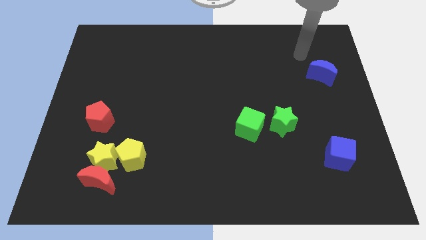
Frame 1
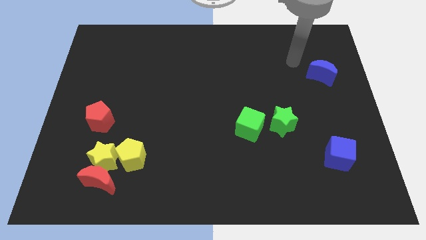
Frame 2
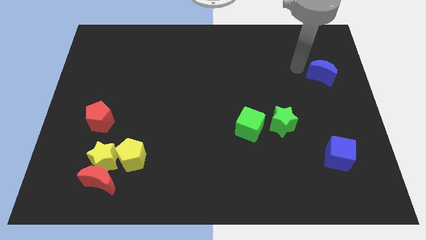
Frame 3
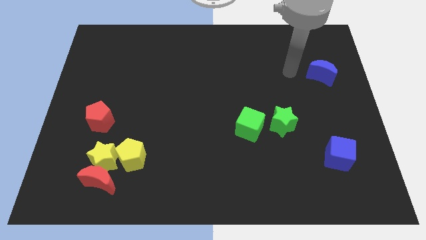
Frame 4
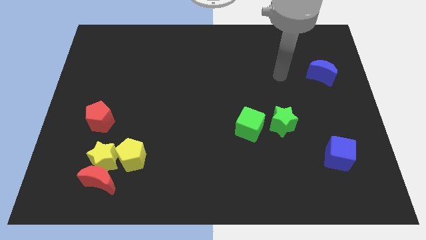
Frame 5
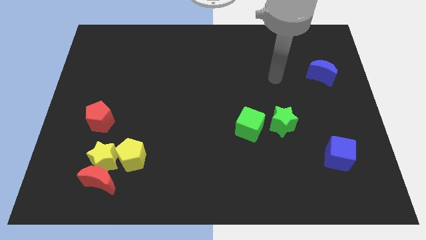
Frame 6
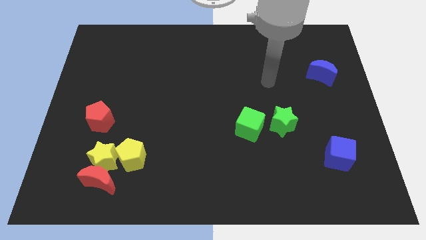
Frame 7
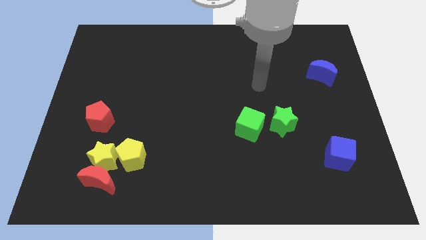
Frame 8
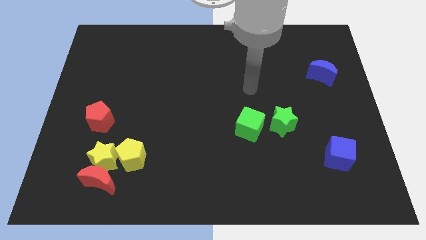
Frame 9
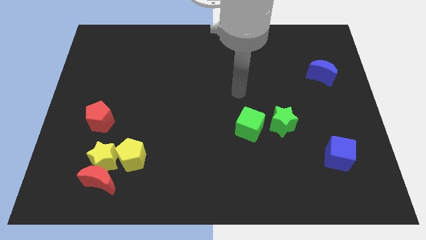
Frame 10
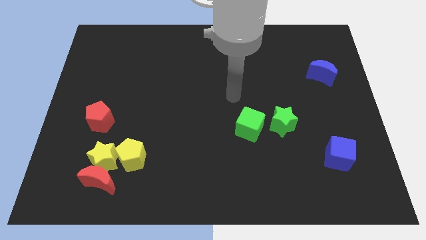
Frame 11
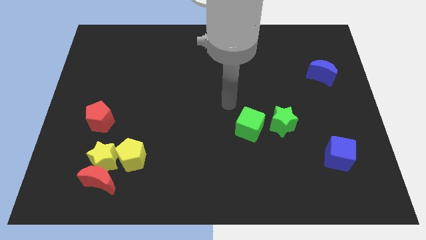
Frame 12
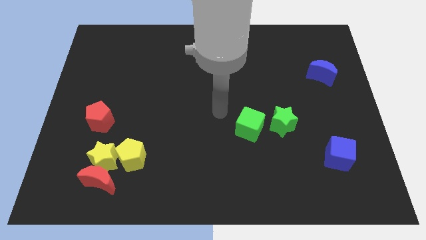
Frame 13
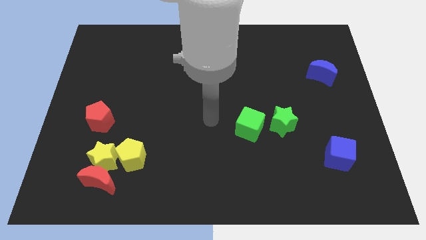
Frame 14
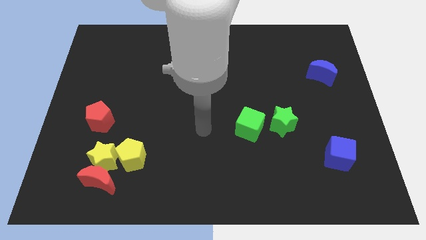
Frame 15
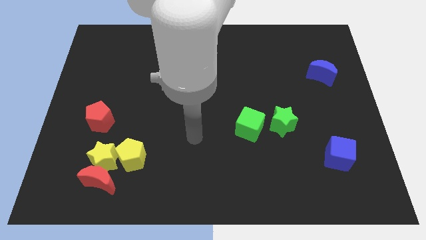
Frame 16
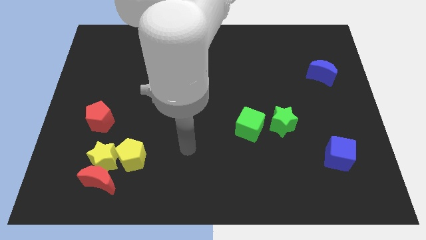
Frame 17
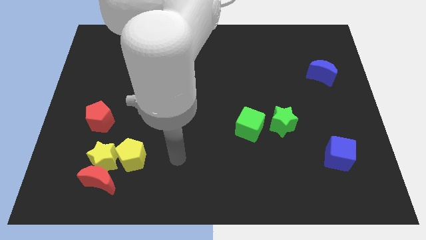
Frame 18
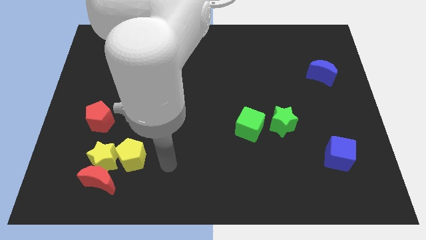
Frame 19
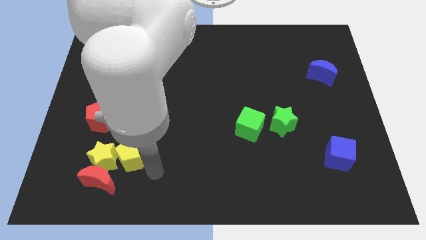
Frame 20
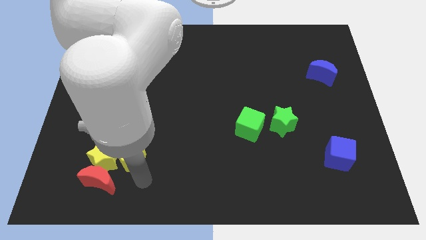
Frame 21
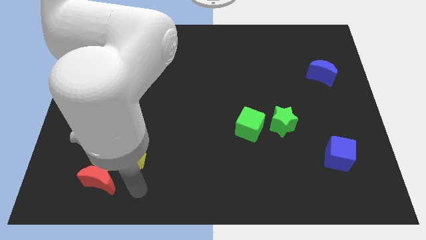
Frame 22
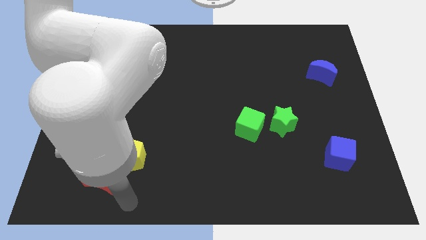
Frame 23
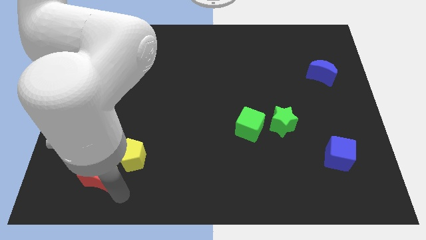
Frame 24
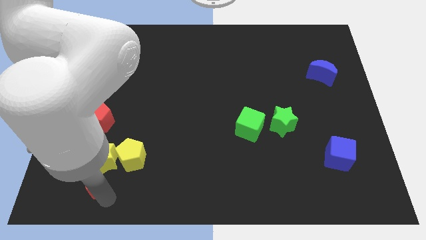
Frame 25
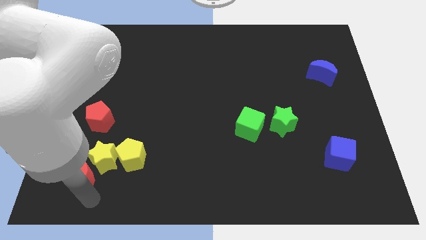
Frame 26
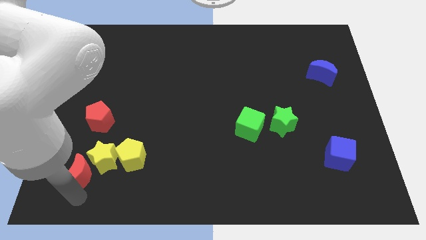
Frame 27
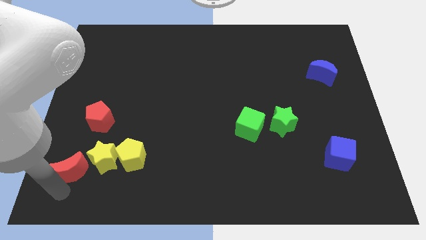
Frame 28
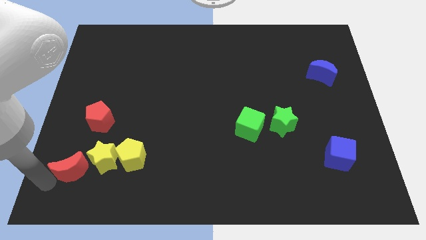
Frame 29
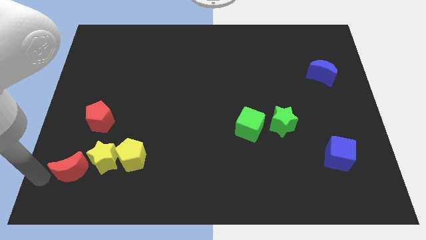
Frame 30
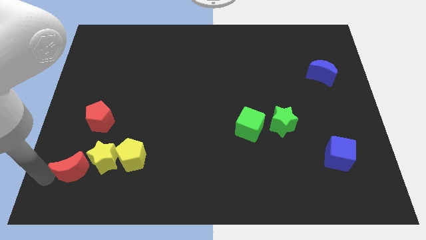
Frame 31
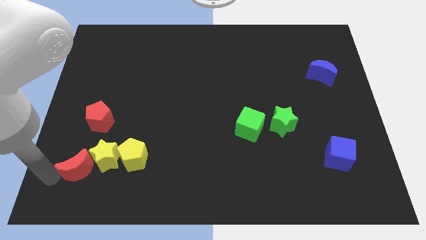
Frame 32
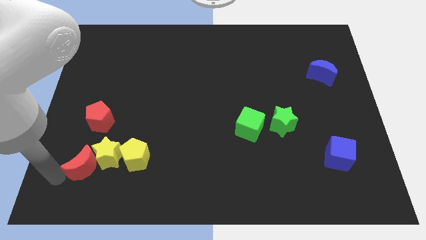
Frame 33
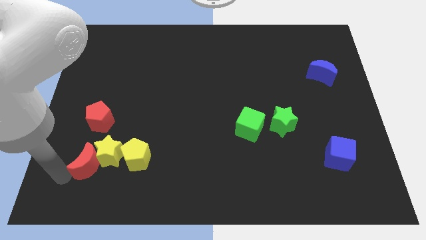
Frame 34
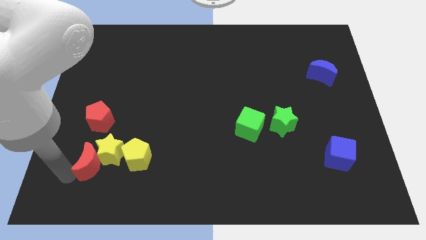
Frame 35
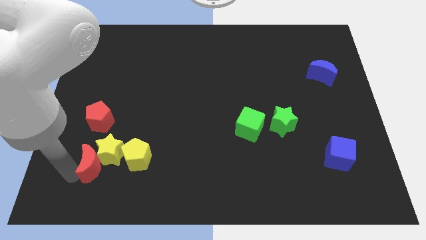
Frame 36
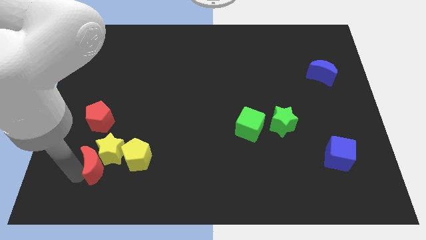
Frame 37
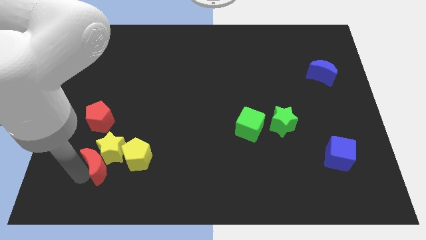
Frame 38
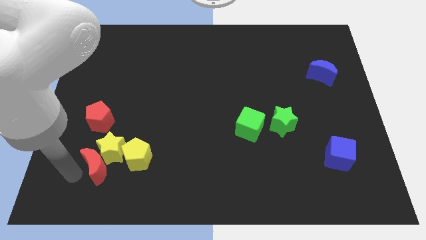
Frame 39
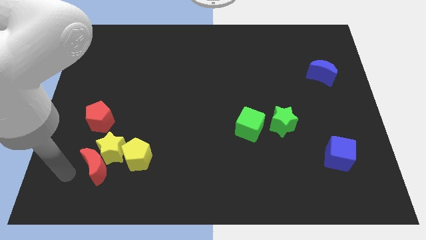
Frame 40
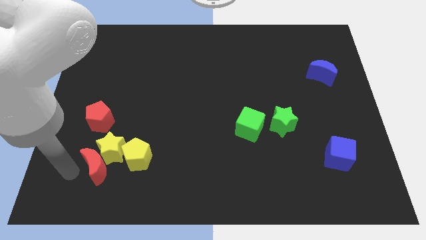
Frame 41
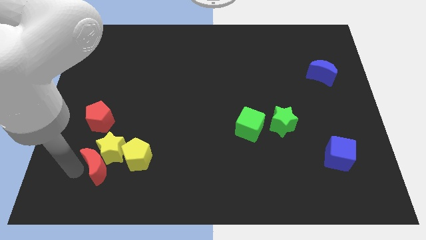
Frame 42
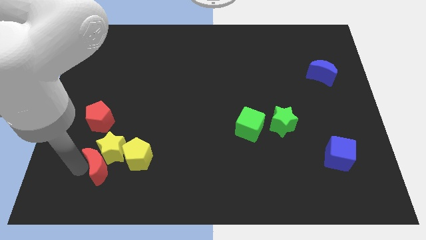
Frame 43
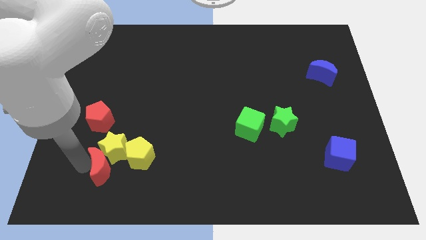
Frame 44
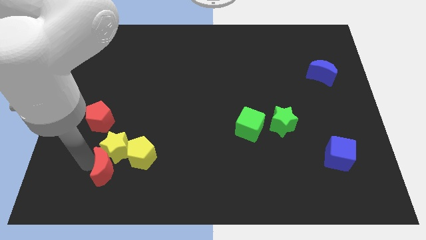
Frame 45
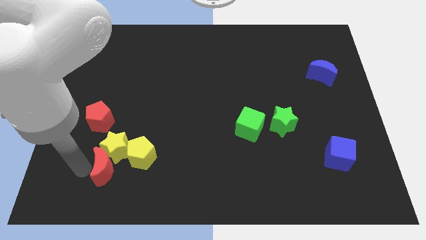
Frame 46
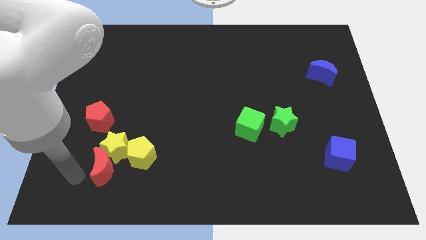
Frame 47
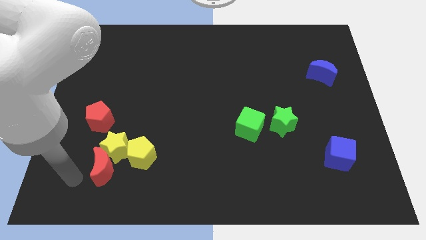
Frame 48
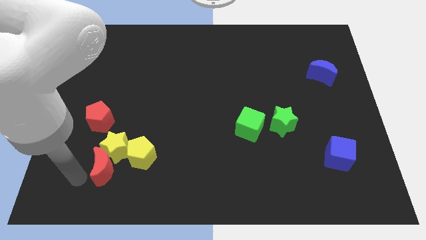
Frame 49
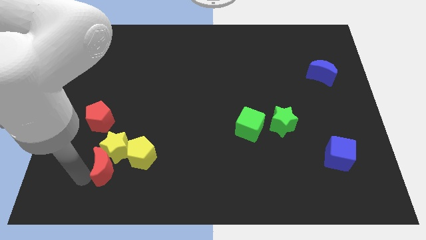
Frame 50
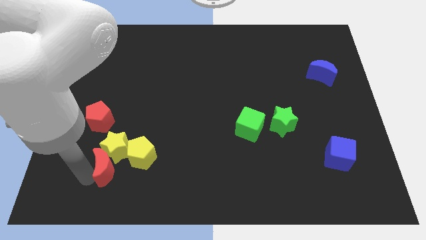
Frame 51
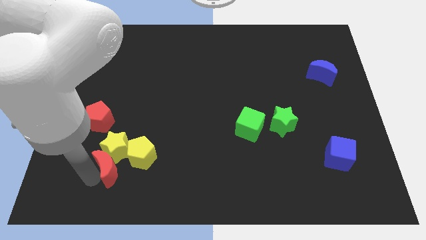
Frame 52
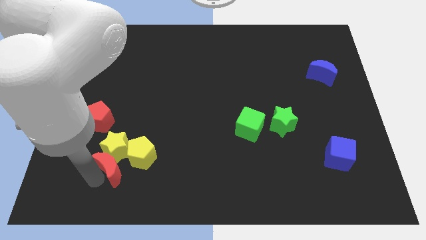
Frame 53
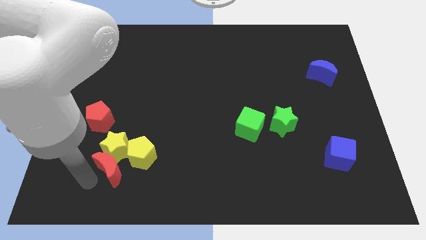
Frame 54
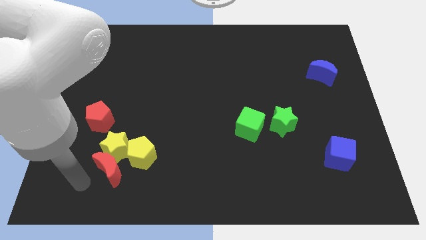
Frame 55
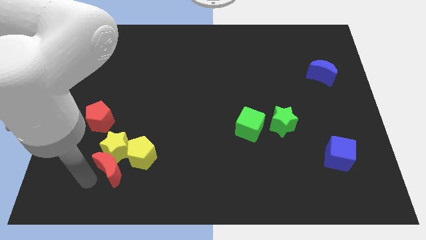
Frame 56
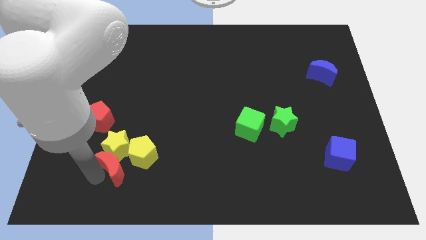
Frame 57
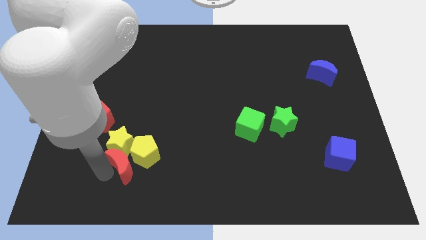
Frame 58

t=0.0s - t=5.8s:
put the red moon next to the yellow pentagon

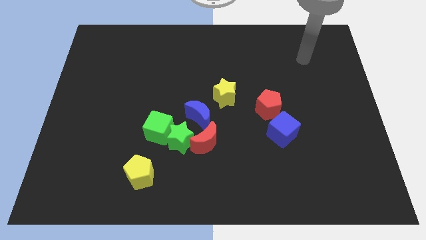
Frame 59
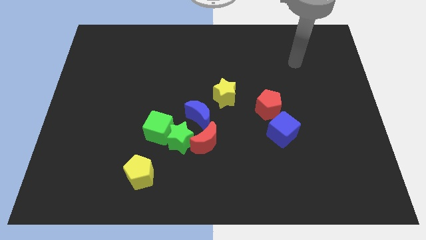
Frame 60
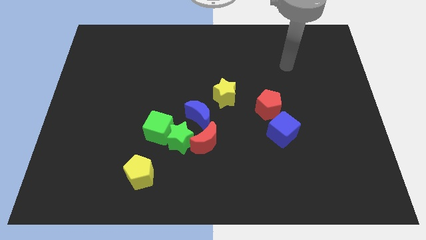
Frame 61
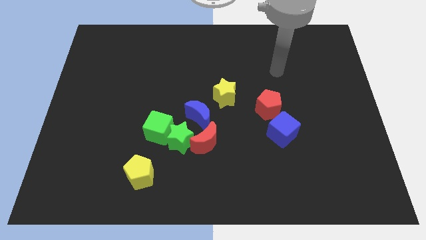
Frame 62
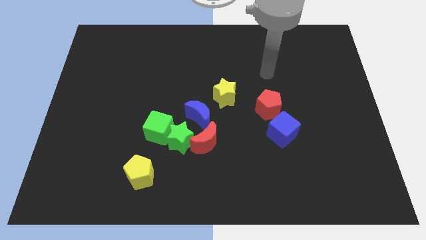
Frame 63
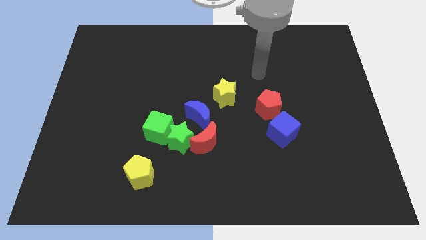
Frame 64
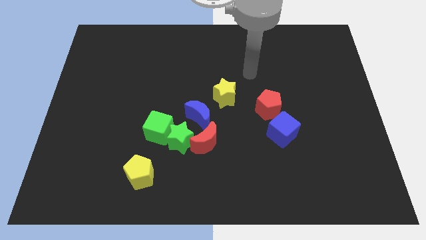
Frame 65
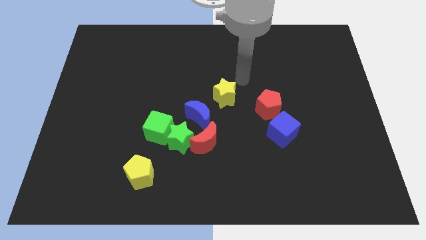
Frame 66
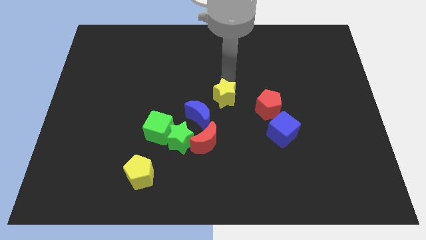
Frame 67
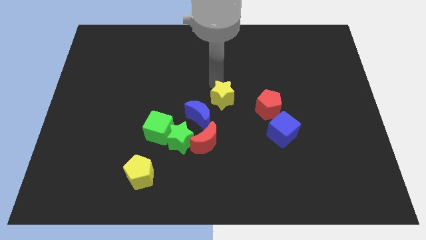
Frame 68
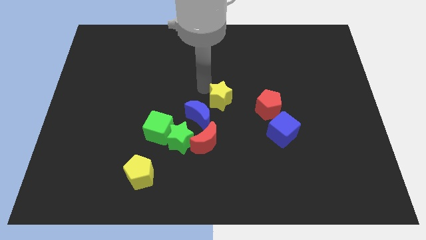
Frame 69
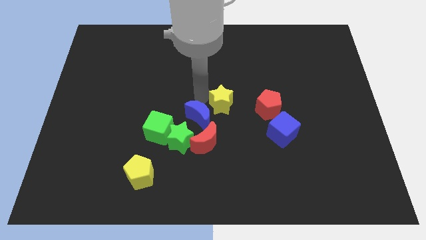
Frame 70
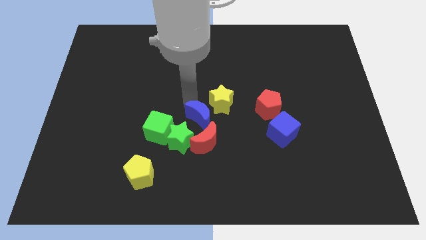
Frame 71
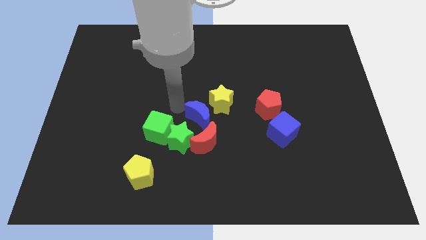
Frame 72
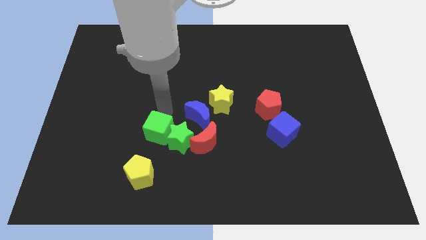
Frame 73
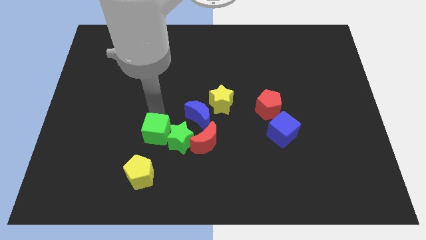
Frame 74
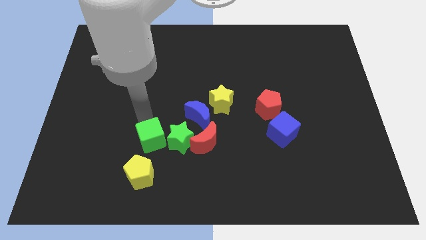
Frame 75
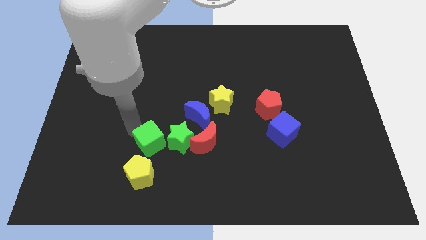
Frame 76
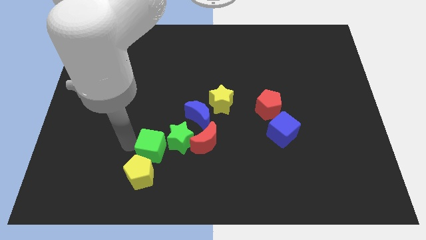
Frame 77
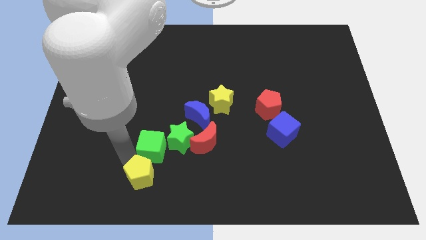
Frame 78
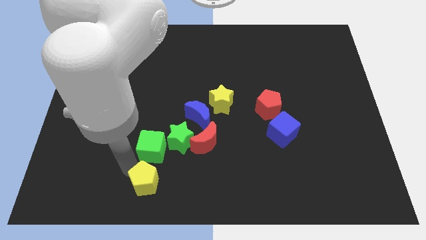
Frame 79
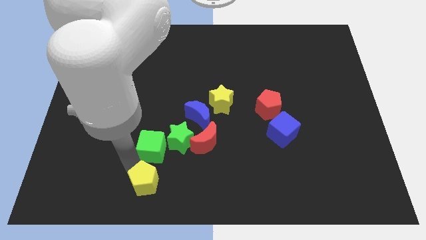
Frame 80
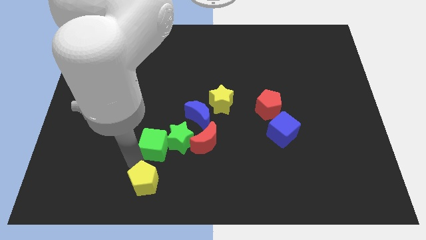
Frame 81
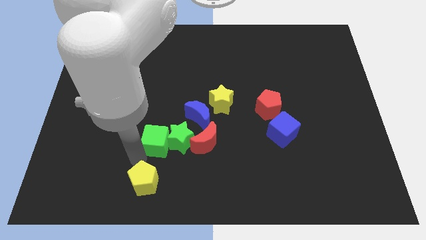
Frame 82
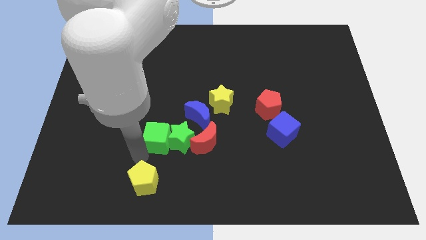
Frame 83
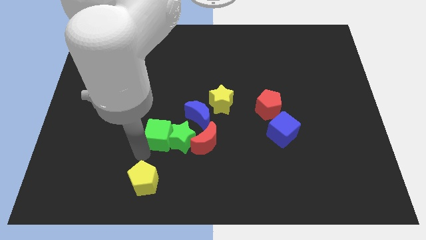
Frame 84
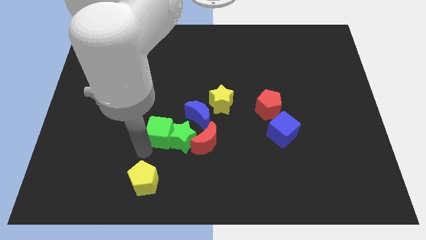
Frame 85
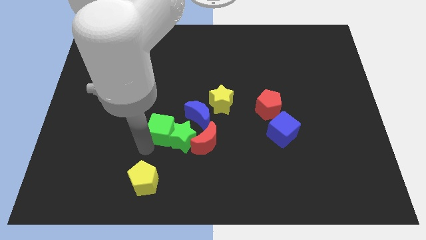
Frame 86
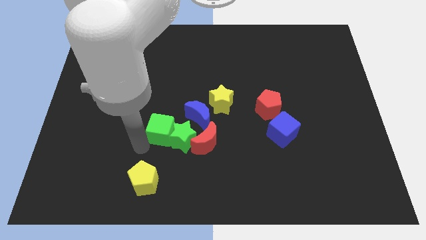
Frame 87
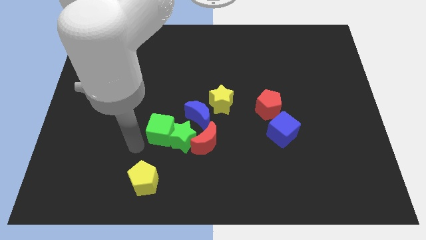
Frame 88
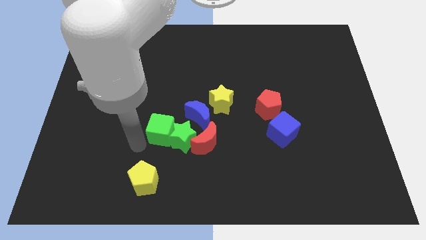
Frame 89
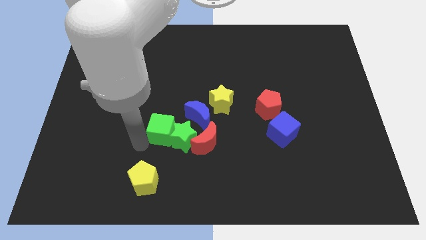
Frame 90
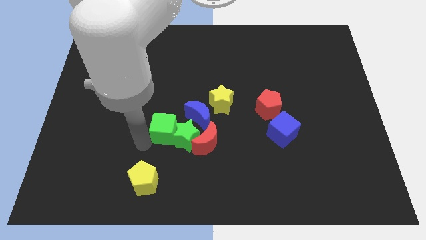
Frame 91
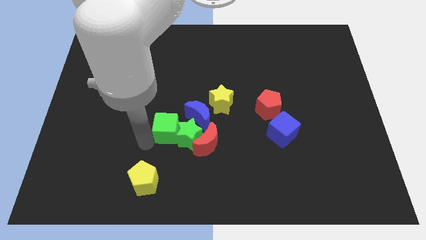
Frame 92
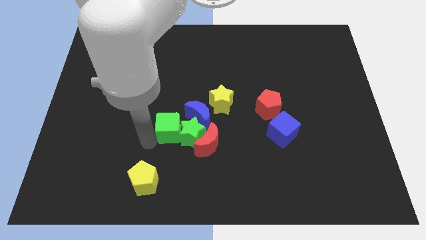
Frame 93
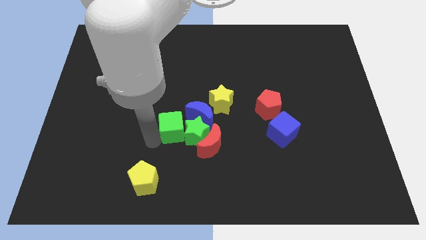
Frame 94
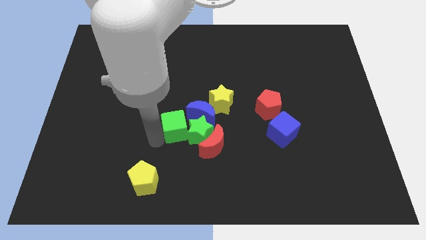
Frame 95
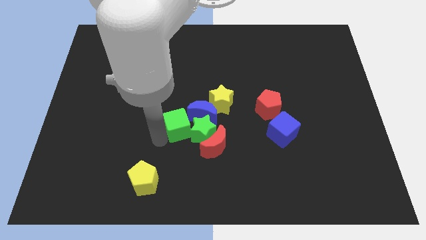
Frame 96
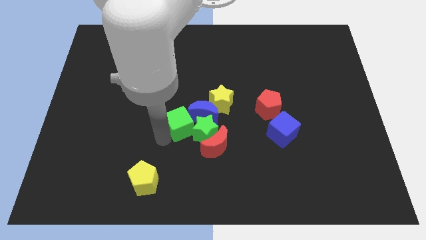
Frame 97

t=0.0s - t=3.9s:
put the green cube towards the blue moon
